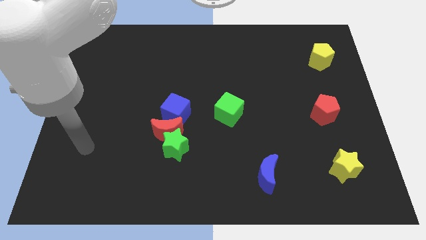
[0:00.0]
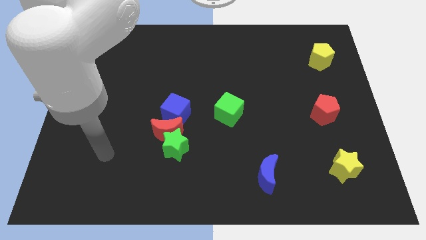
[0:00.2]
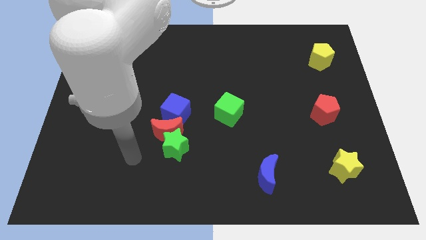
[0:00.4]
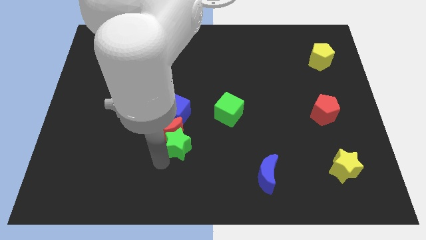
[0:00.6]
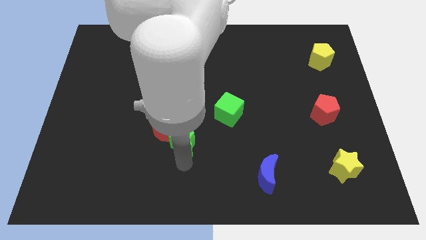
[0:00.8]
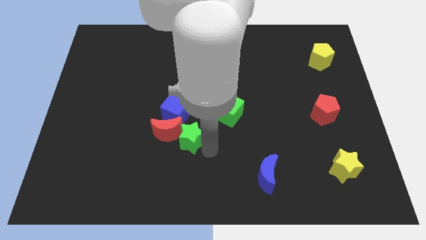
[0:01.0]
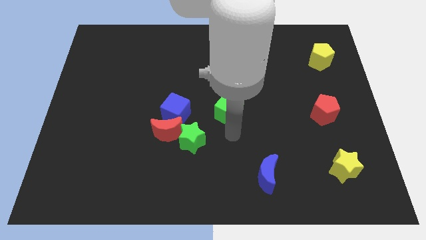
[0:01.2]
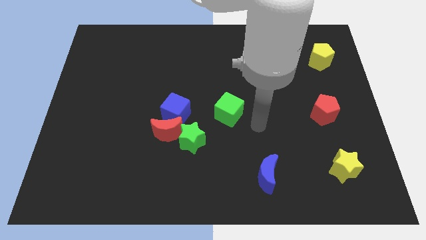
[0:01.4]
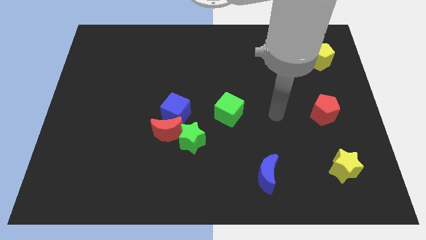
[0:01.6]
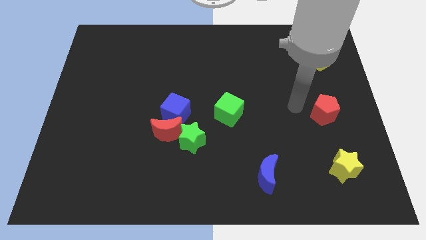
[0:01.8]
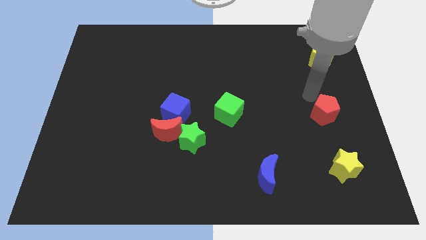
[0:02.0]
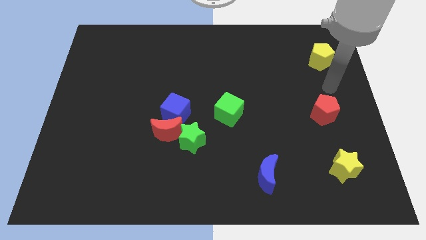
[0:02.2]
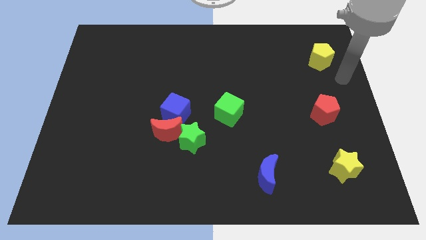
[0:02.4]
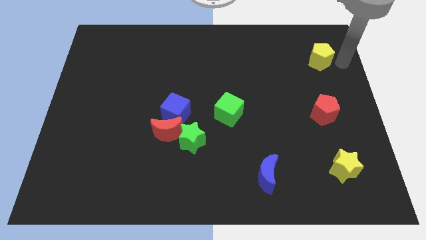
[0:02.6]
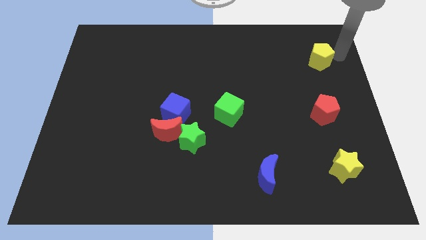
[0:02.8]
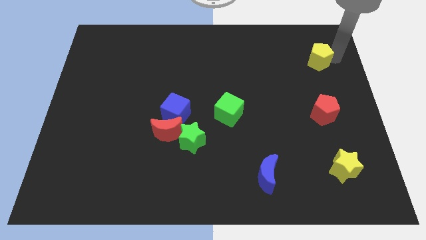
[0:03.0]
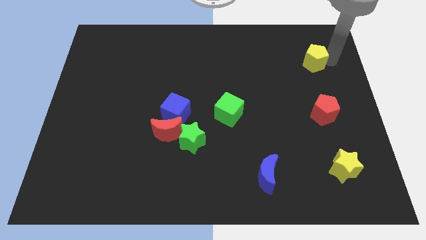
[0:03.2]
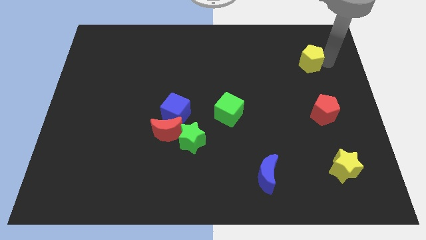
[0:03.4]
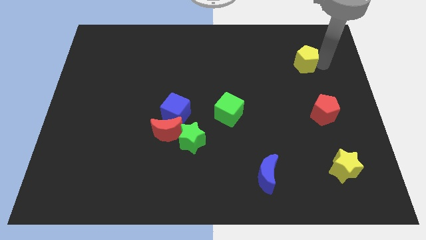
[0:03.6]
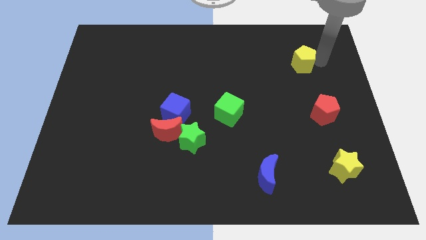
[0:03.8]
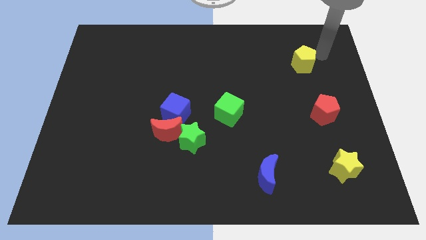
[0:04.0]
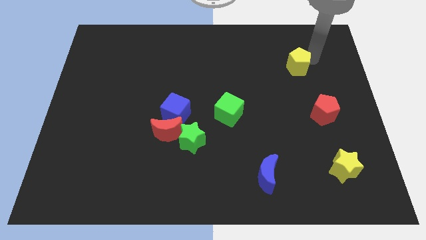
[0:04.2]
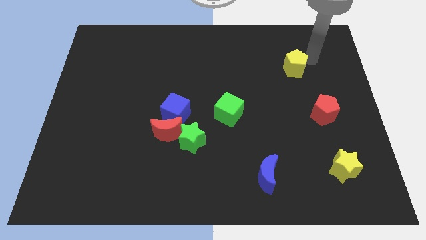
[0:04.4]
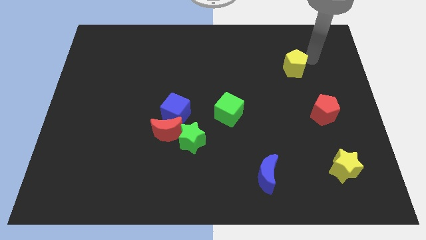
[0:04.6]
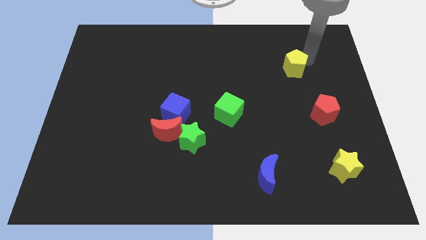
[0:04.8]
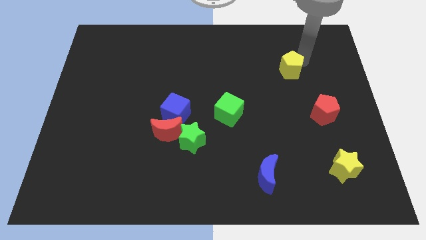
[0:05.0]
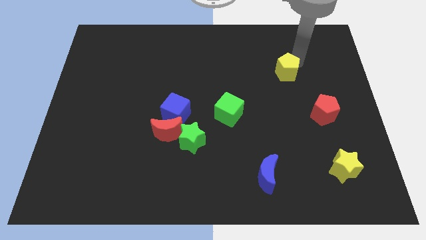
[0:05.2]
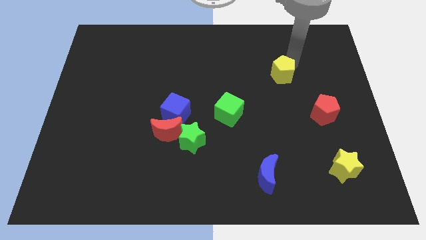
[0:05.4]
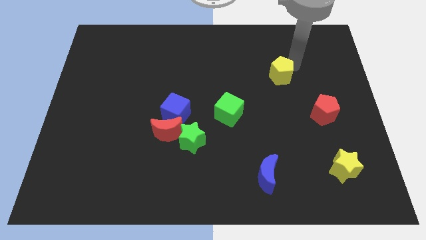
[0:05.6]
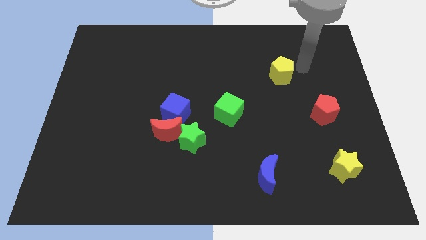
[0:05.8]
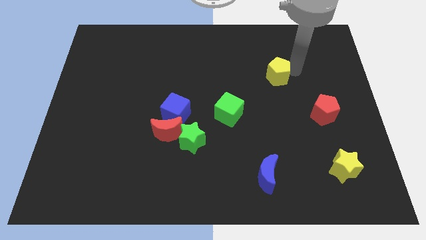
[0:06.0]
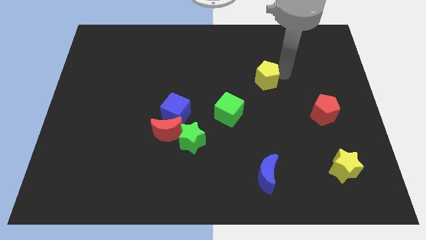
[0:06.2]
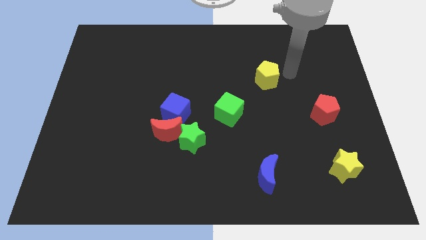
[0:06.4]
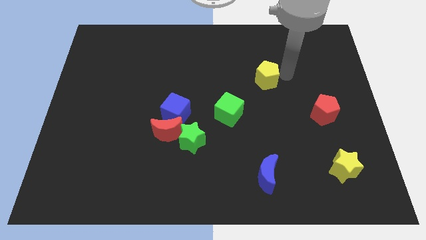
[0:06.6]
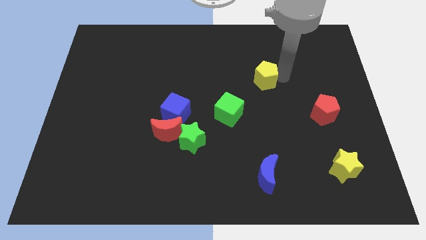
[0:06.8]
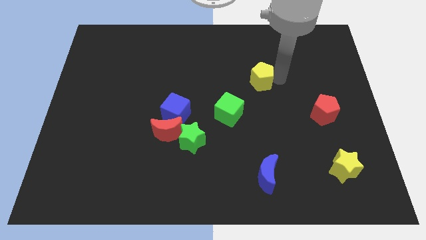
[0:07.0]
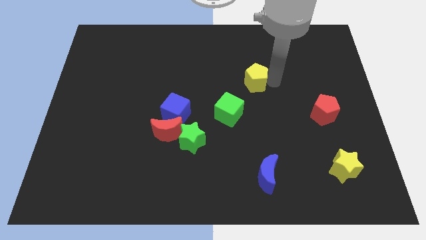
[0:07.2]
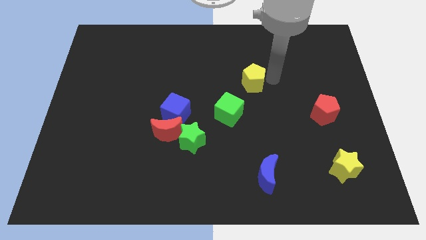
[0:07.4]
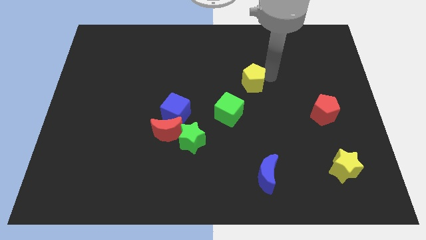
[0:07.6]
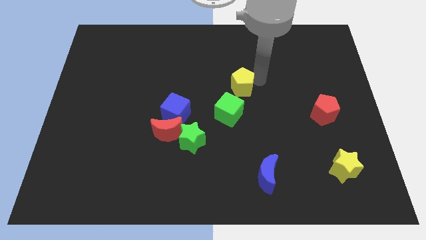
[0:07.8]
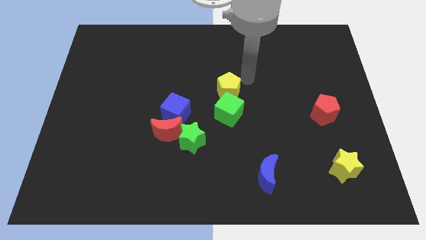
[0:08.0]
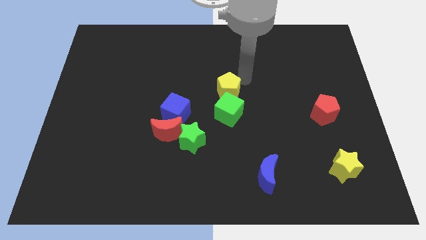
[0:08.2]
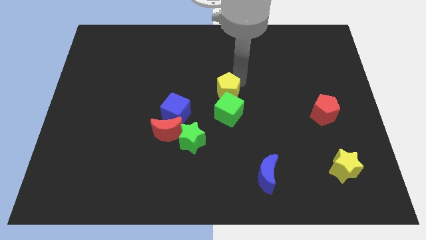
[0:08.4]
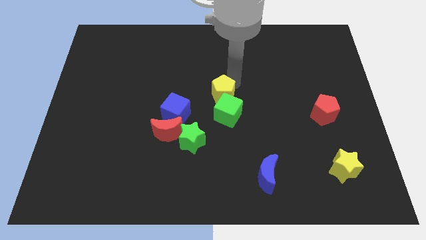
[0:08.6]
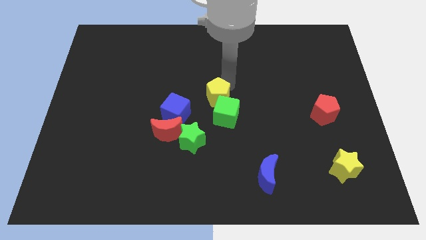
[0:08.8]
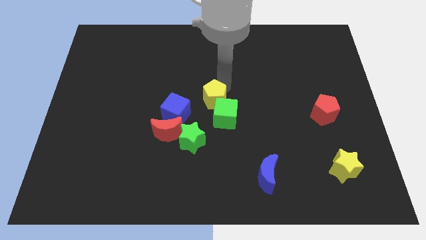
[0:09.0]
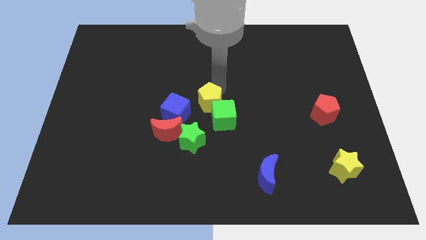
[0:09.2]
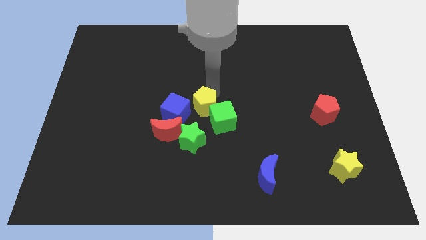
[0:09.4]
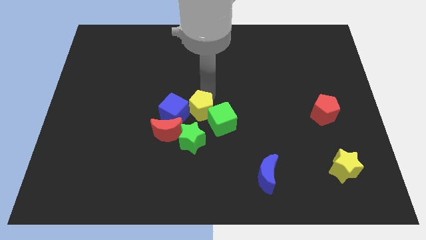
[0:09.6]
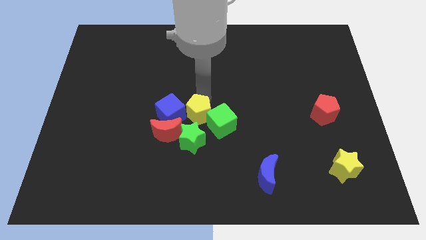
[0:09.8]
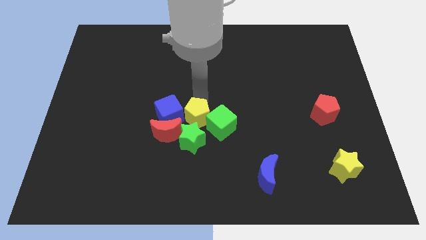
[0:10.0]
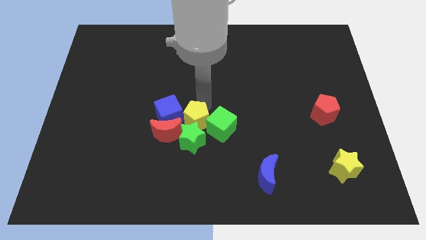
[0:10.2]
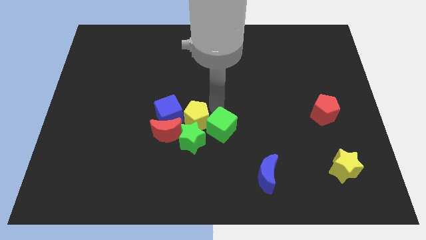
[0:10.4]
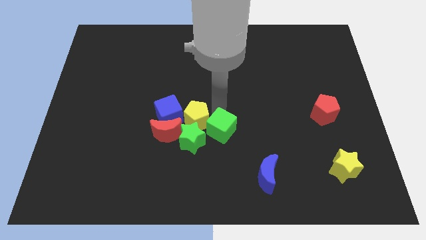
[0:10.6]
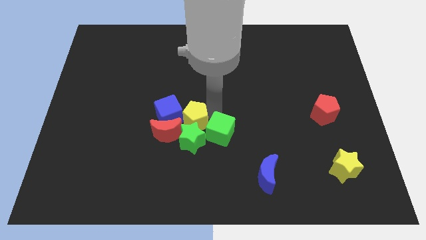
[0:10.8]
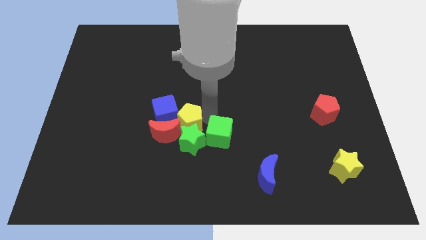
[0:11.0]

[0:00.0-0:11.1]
put the yellow pentagon close to the red moon
